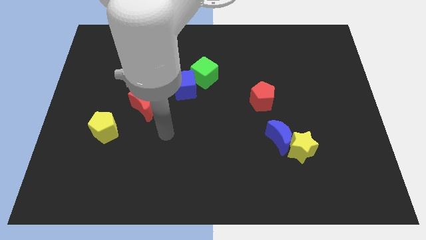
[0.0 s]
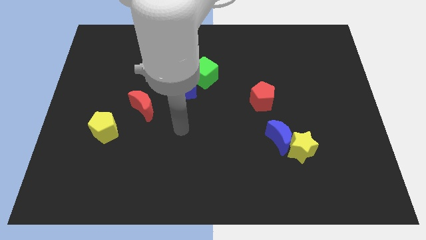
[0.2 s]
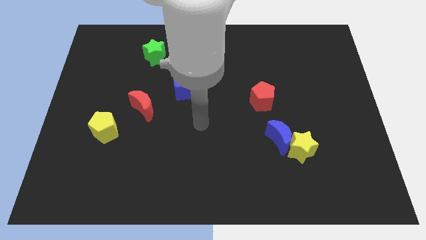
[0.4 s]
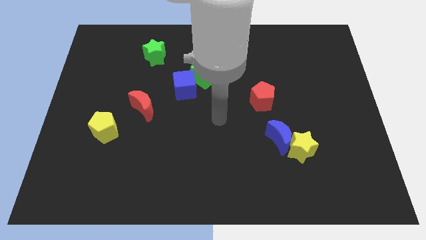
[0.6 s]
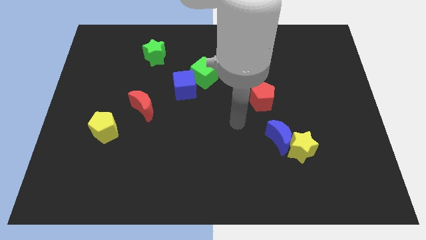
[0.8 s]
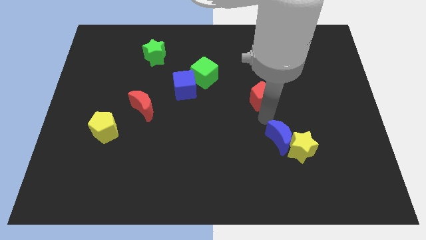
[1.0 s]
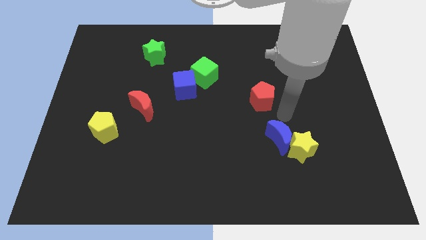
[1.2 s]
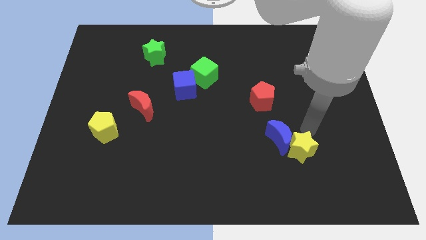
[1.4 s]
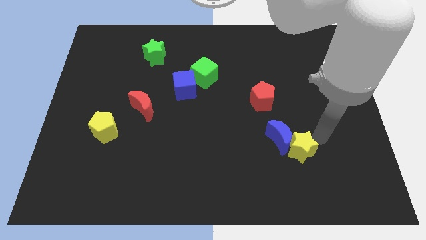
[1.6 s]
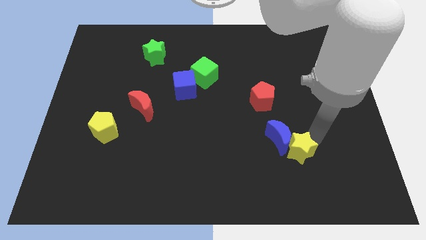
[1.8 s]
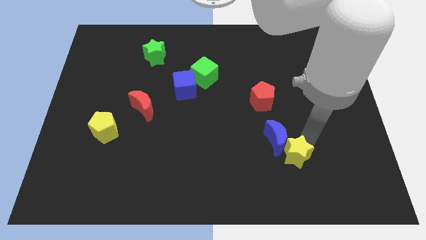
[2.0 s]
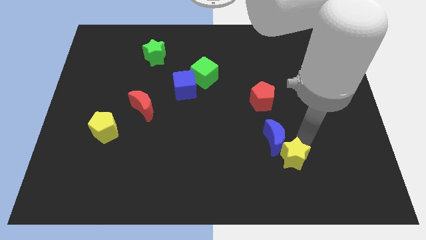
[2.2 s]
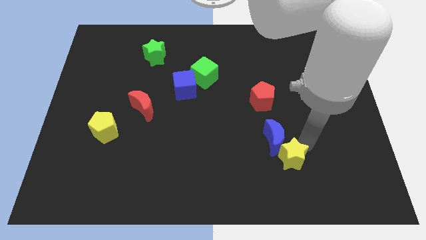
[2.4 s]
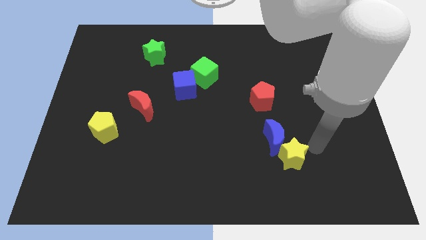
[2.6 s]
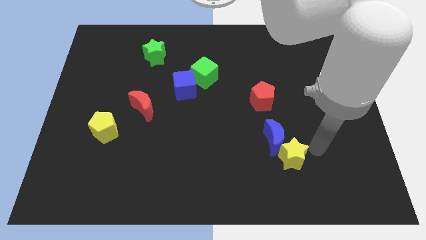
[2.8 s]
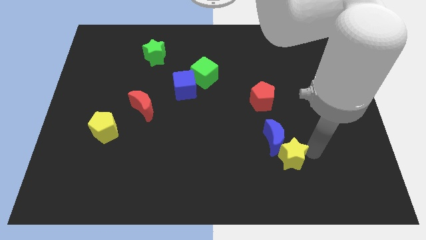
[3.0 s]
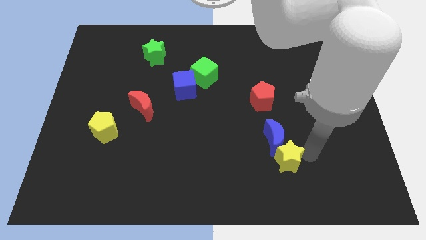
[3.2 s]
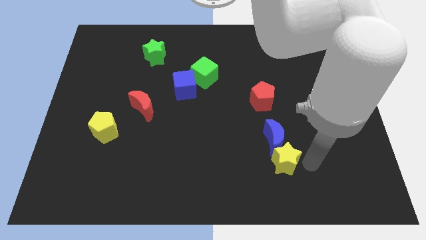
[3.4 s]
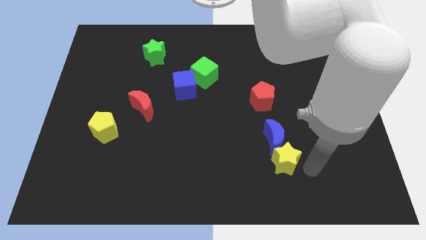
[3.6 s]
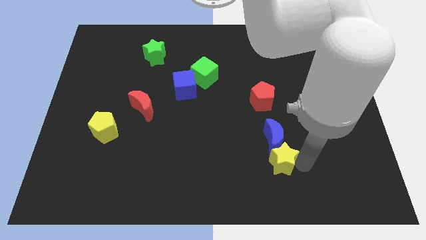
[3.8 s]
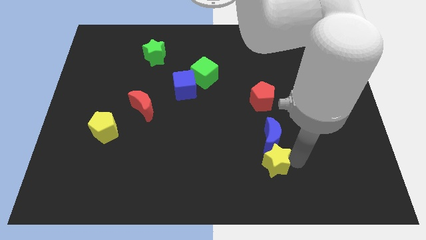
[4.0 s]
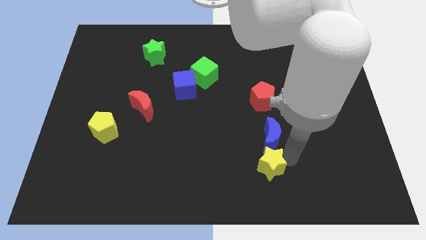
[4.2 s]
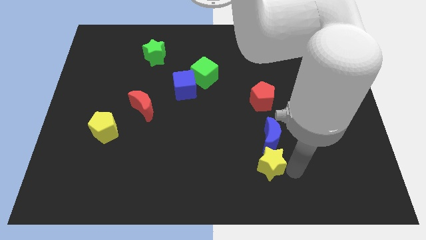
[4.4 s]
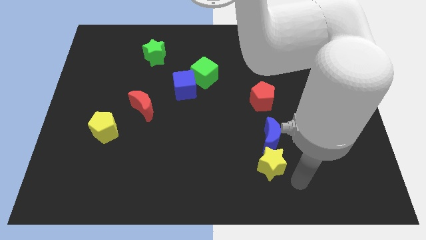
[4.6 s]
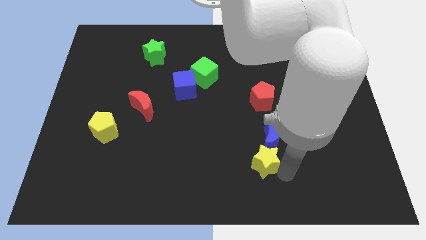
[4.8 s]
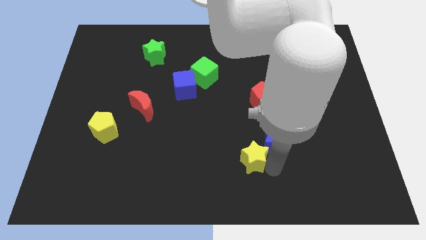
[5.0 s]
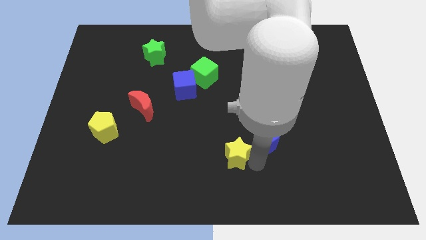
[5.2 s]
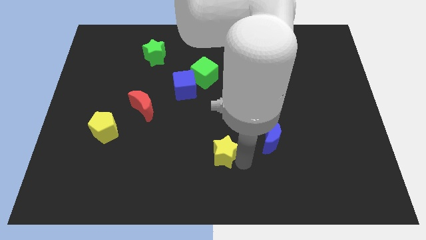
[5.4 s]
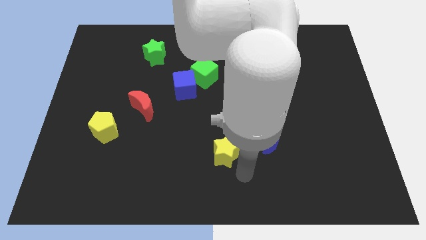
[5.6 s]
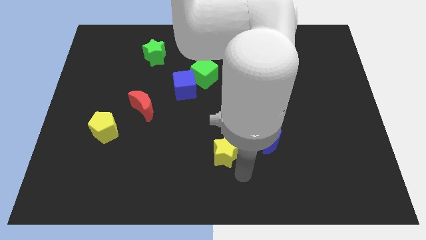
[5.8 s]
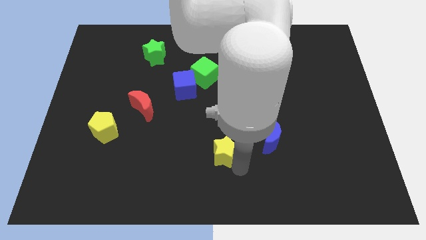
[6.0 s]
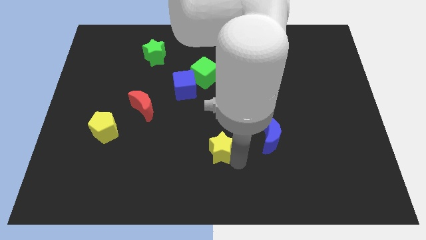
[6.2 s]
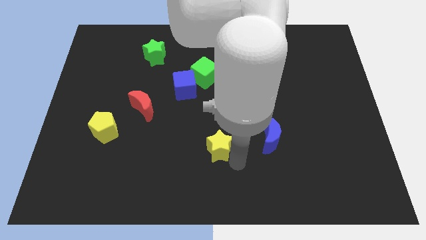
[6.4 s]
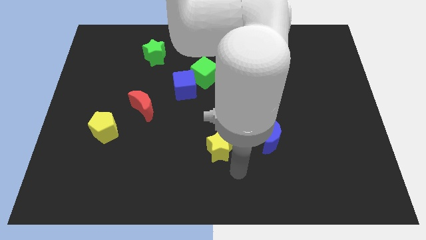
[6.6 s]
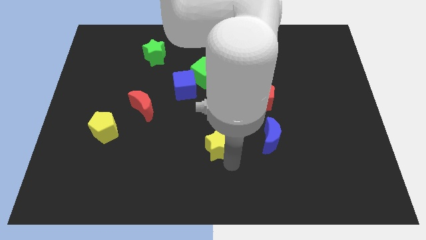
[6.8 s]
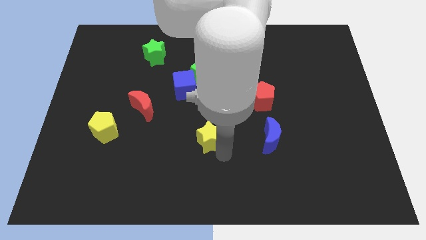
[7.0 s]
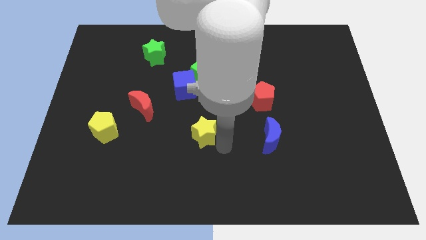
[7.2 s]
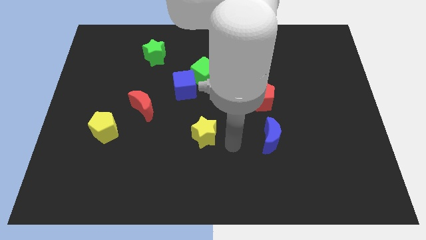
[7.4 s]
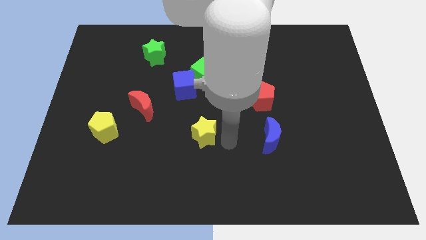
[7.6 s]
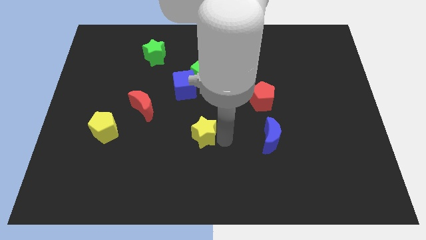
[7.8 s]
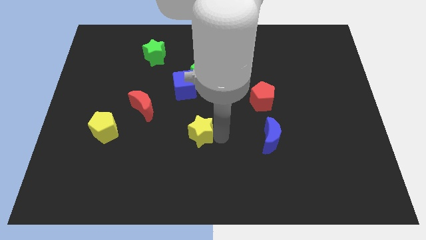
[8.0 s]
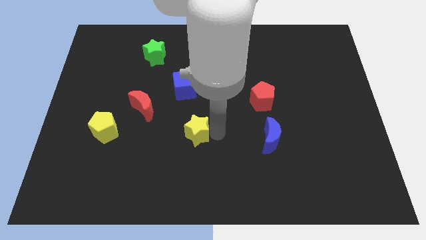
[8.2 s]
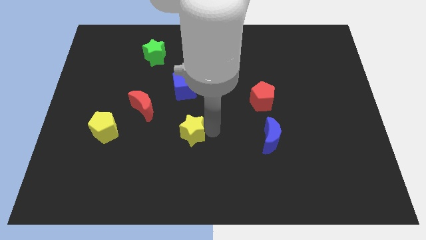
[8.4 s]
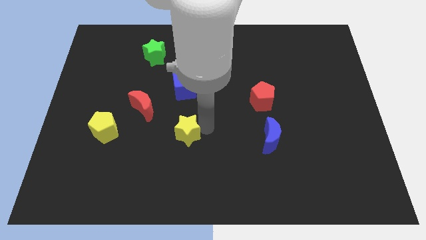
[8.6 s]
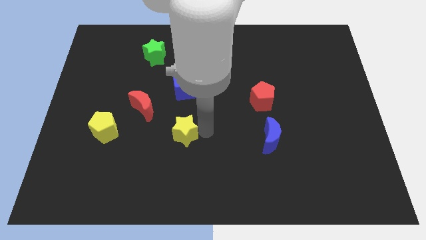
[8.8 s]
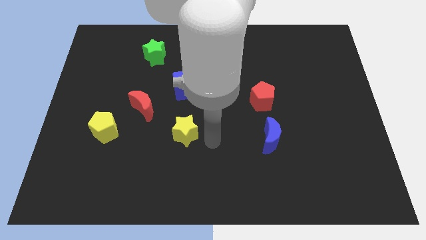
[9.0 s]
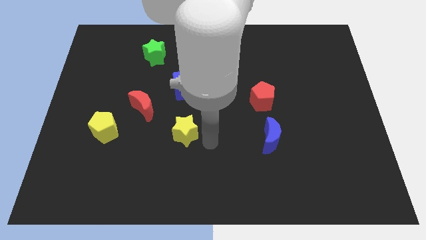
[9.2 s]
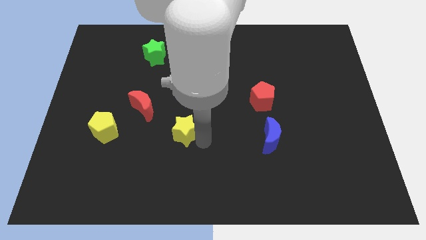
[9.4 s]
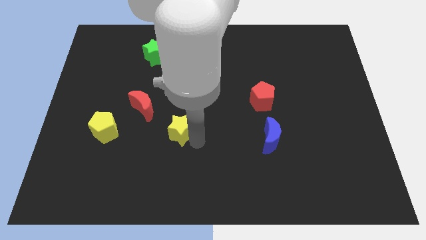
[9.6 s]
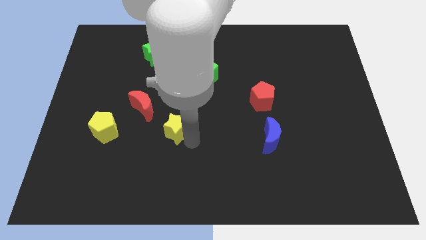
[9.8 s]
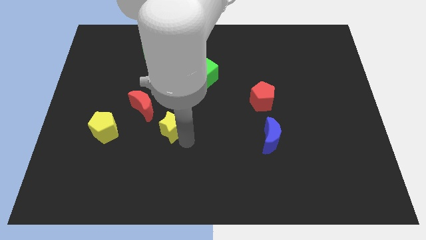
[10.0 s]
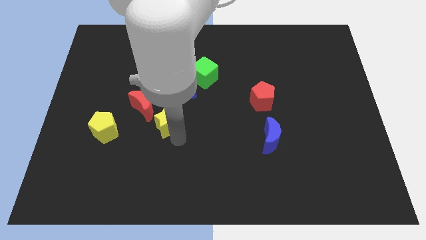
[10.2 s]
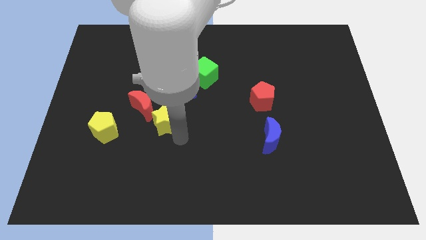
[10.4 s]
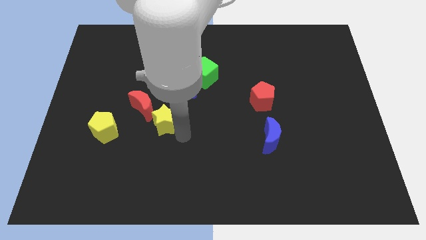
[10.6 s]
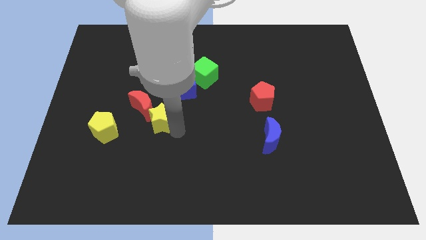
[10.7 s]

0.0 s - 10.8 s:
push the yellow star close to the red moon

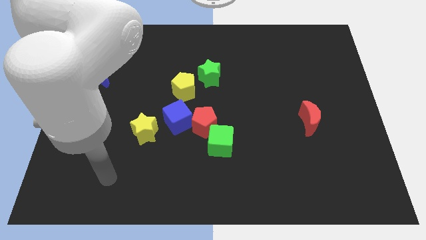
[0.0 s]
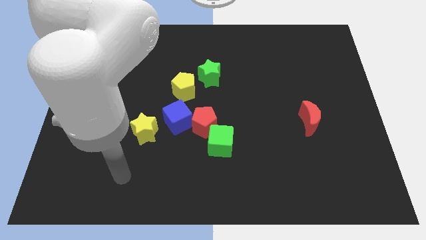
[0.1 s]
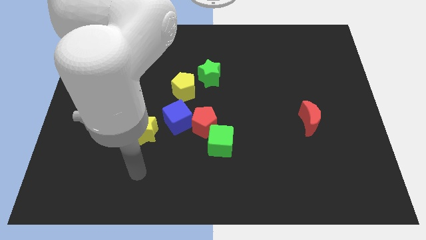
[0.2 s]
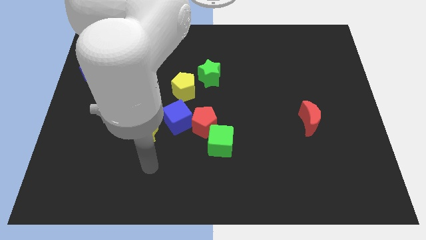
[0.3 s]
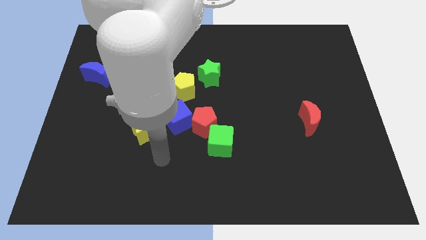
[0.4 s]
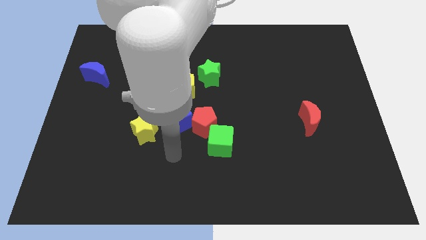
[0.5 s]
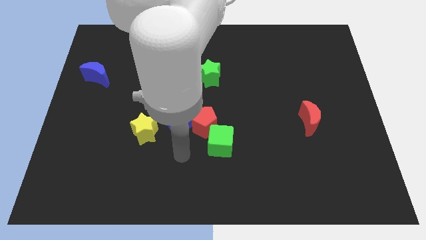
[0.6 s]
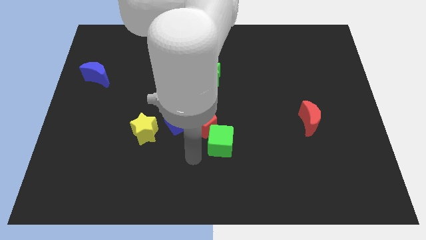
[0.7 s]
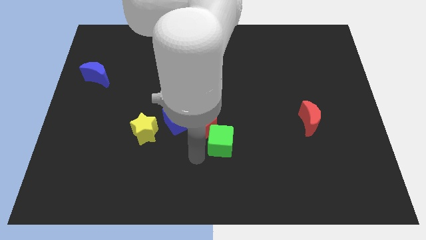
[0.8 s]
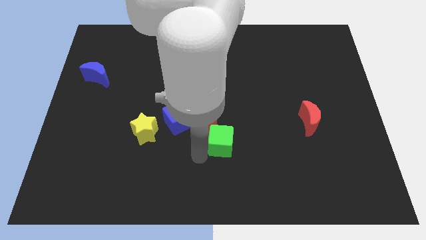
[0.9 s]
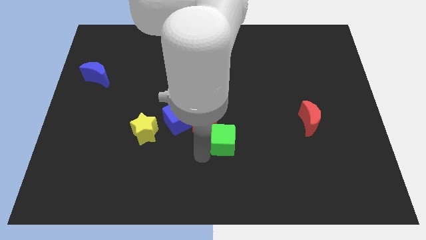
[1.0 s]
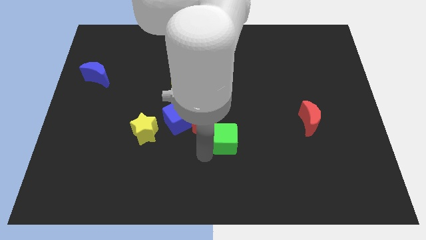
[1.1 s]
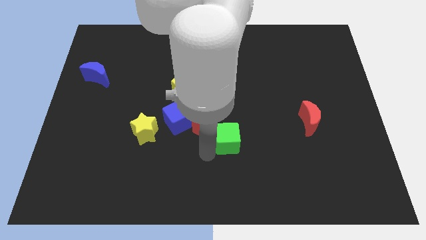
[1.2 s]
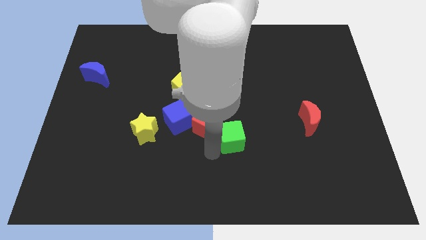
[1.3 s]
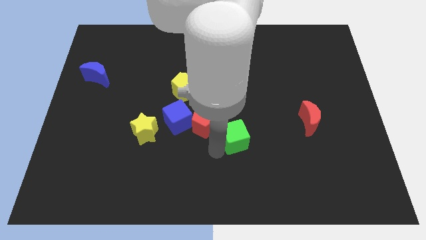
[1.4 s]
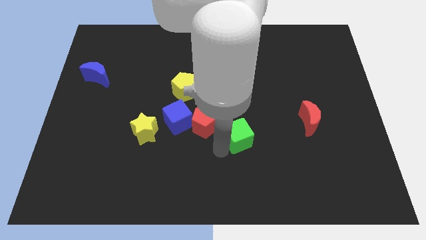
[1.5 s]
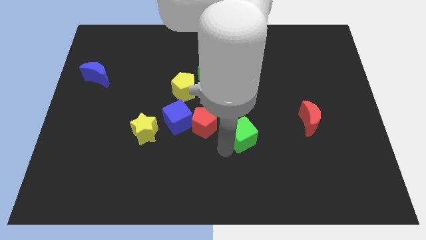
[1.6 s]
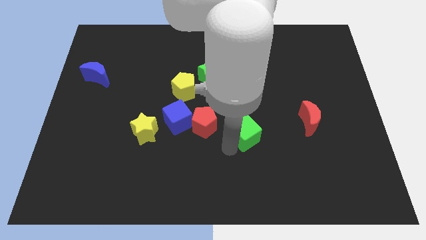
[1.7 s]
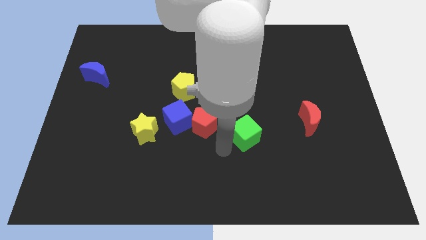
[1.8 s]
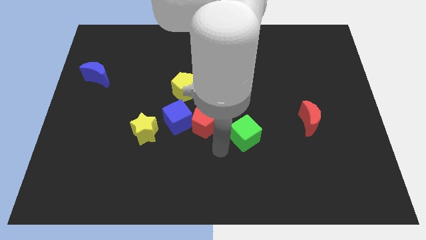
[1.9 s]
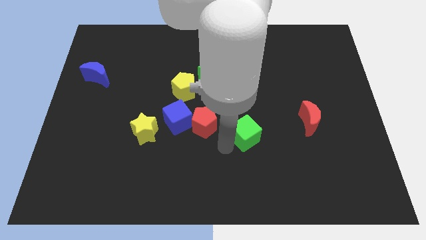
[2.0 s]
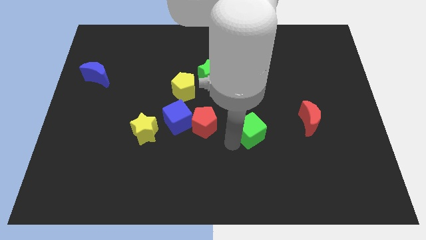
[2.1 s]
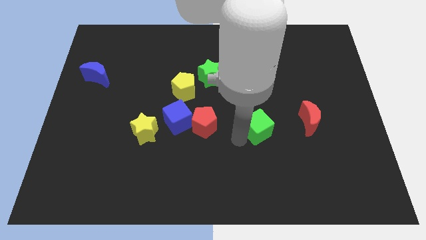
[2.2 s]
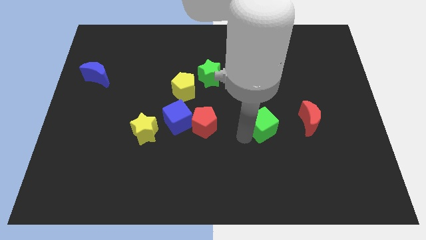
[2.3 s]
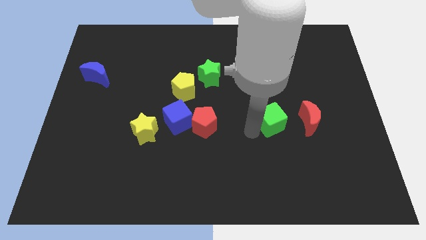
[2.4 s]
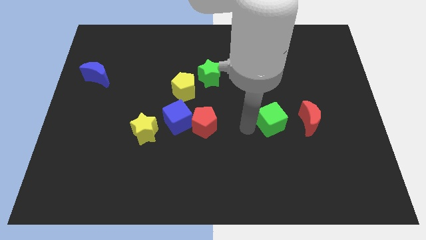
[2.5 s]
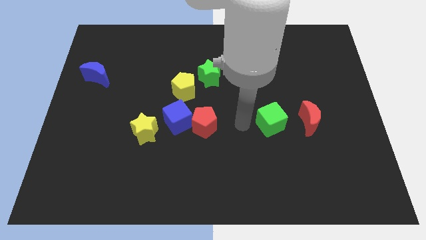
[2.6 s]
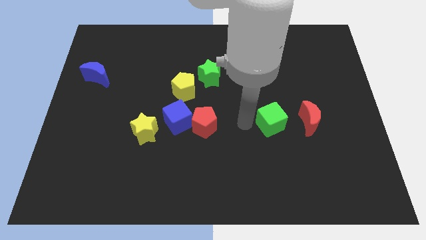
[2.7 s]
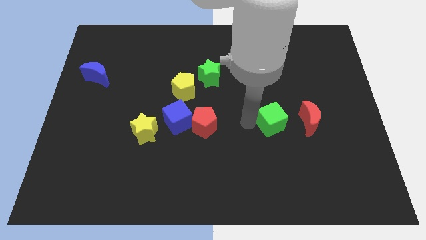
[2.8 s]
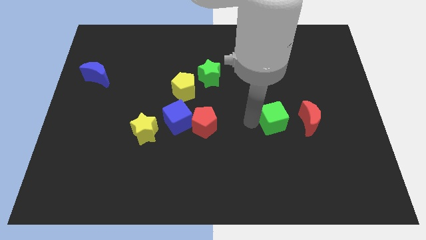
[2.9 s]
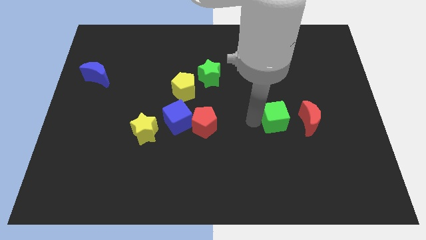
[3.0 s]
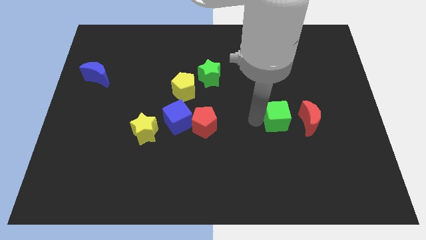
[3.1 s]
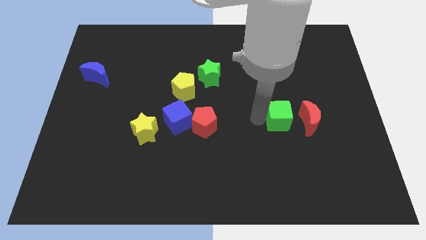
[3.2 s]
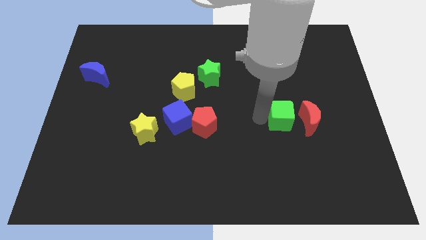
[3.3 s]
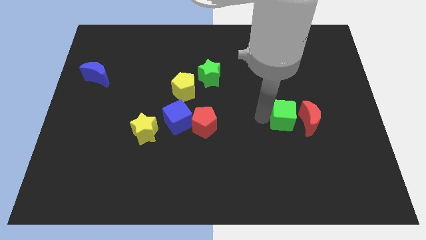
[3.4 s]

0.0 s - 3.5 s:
push the green cube next to the red moon
